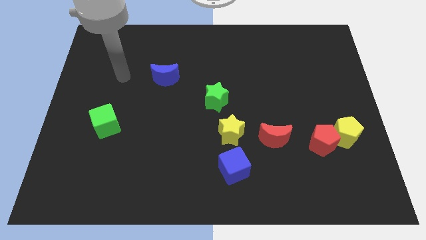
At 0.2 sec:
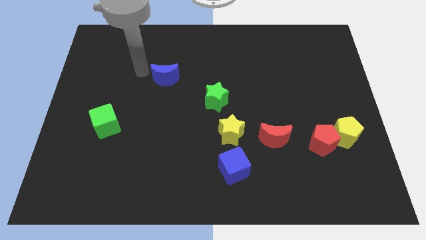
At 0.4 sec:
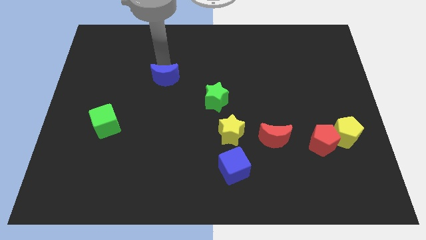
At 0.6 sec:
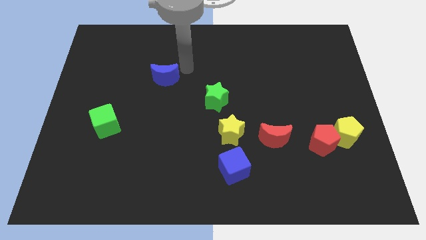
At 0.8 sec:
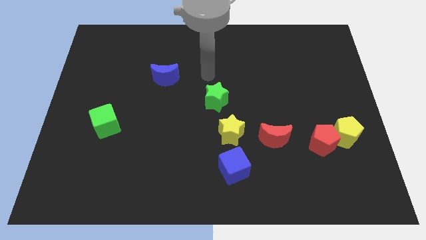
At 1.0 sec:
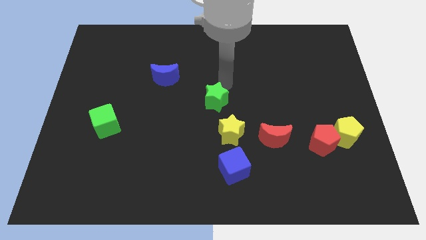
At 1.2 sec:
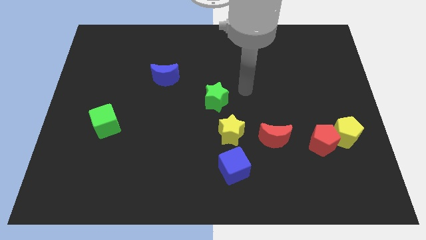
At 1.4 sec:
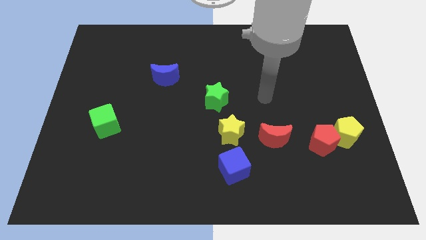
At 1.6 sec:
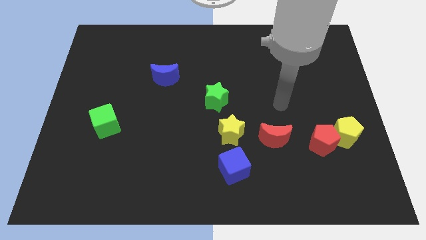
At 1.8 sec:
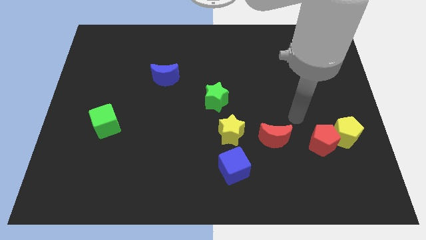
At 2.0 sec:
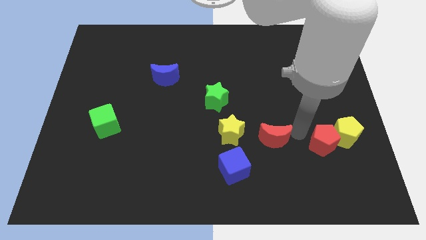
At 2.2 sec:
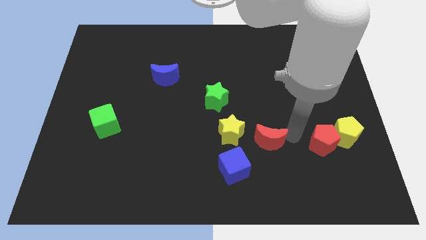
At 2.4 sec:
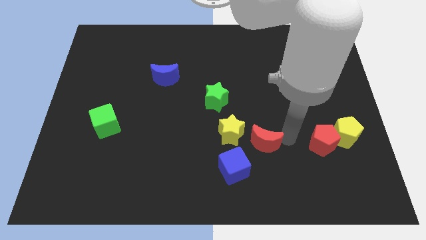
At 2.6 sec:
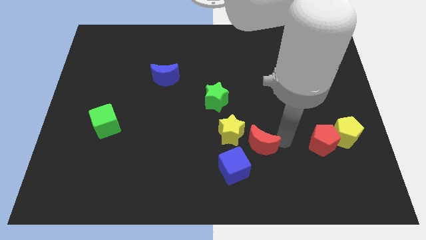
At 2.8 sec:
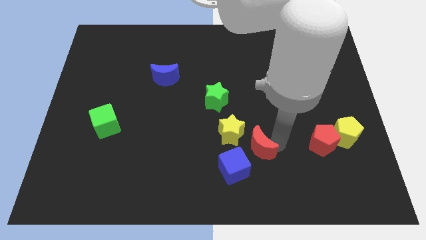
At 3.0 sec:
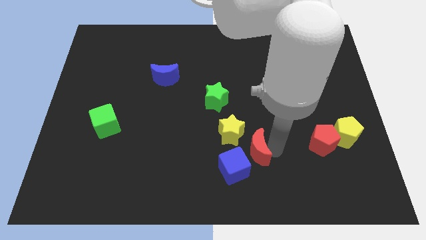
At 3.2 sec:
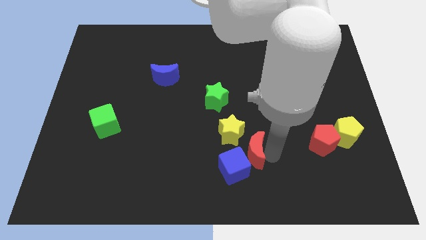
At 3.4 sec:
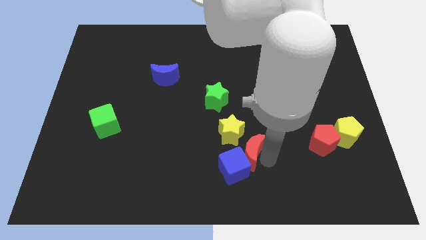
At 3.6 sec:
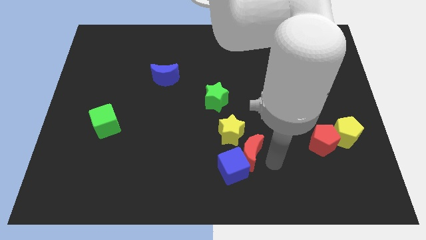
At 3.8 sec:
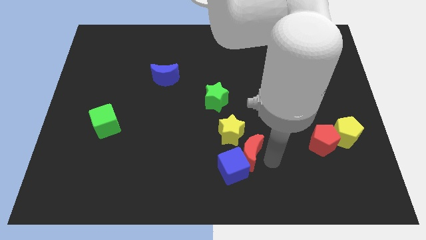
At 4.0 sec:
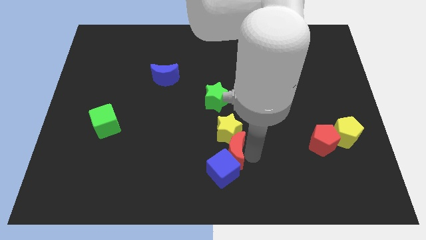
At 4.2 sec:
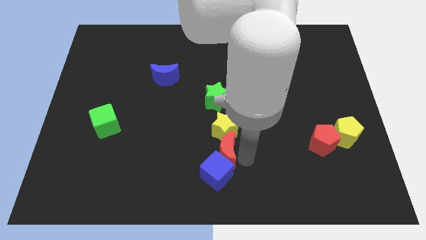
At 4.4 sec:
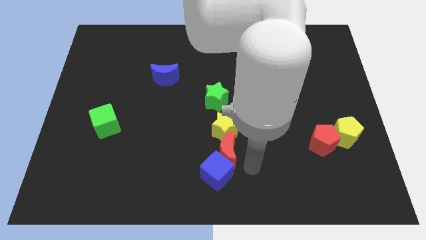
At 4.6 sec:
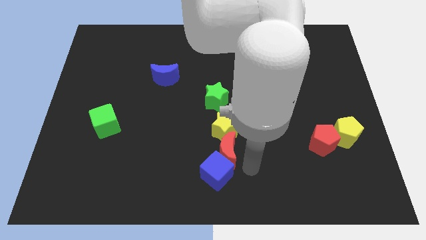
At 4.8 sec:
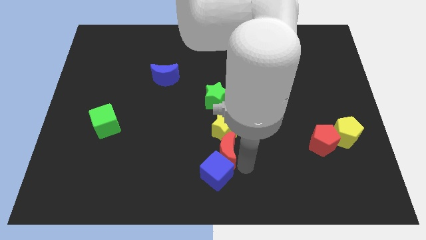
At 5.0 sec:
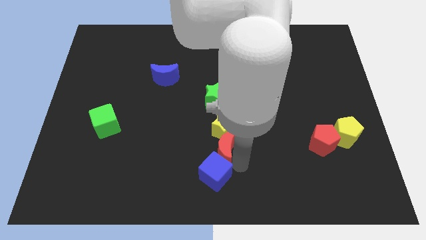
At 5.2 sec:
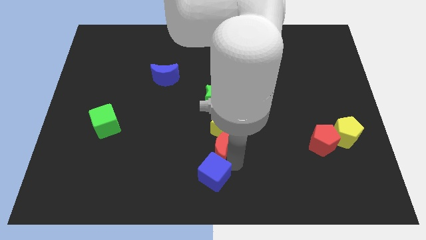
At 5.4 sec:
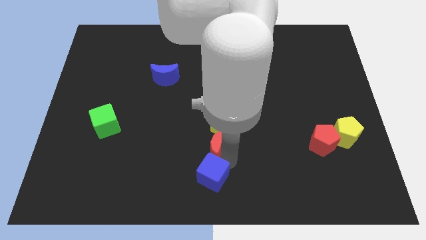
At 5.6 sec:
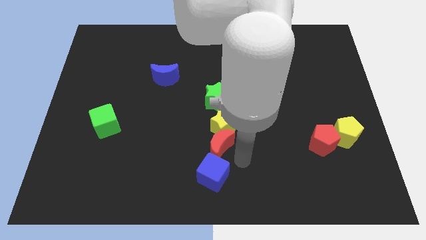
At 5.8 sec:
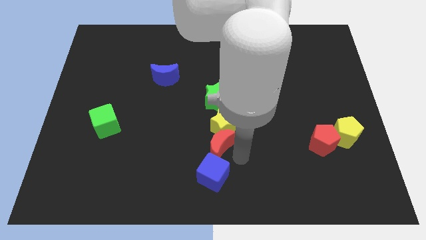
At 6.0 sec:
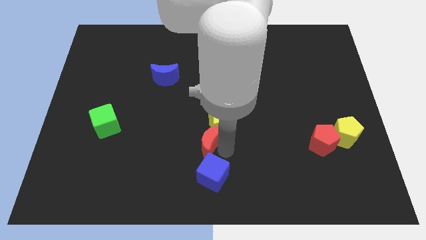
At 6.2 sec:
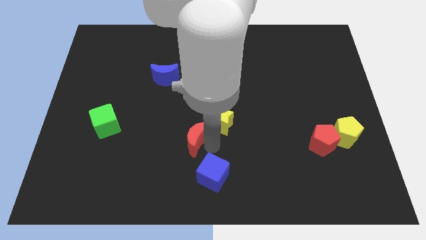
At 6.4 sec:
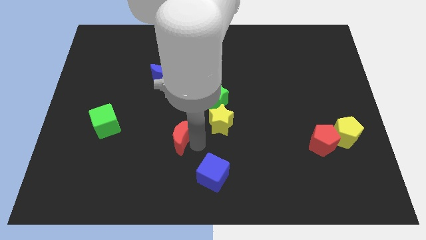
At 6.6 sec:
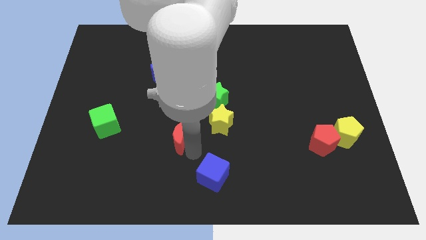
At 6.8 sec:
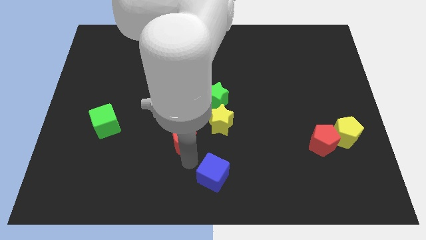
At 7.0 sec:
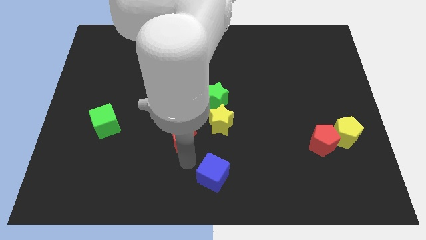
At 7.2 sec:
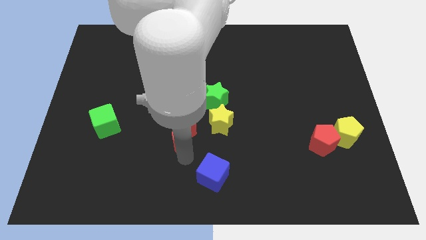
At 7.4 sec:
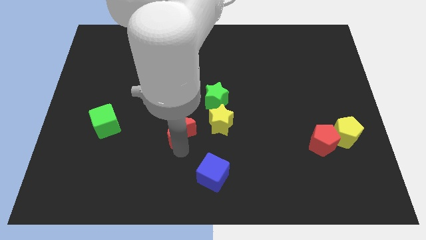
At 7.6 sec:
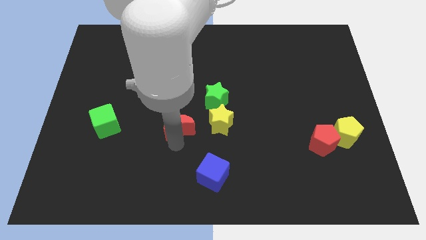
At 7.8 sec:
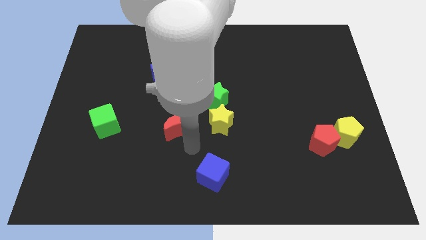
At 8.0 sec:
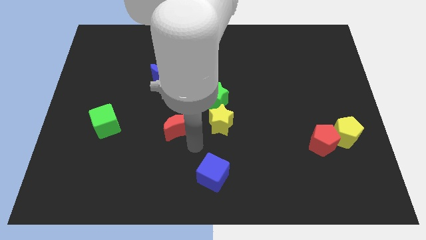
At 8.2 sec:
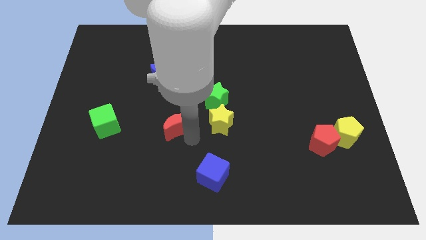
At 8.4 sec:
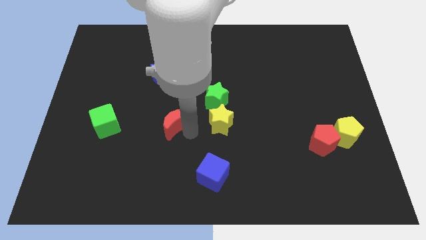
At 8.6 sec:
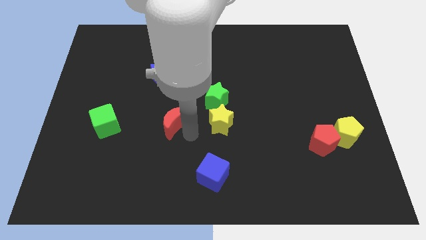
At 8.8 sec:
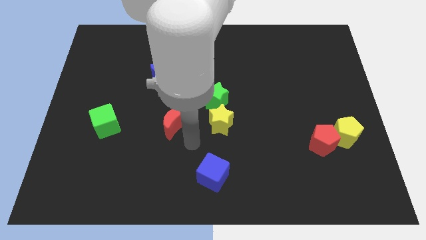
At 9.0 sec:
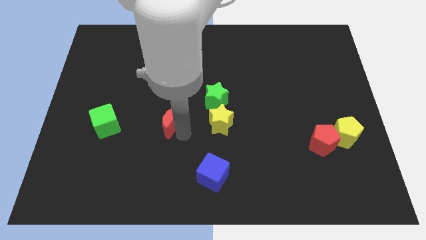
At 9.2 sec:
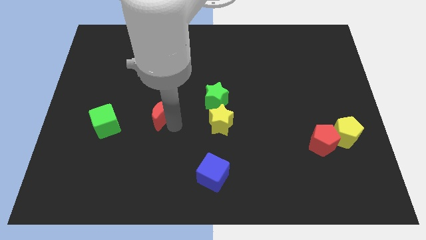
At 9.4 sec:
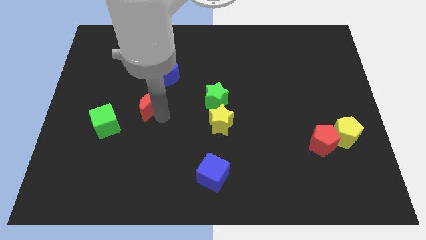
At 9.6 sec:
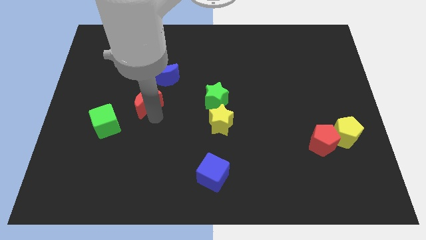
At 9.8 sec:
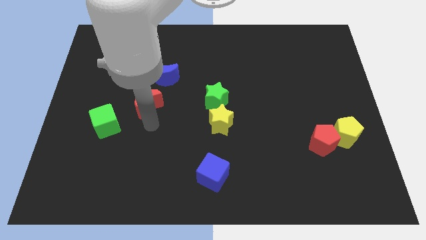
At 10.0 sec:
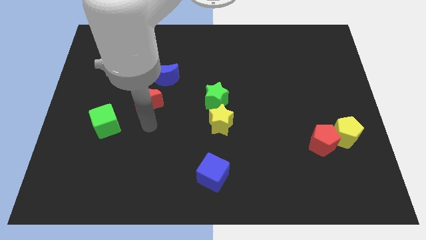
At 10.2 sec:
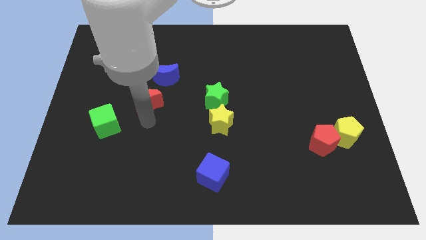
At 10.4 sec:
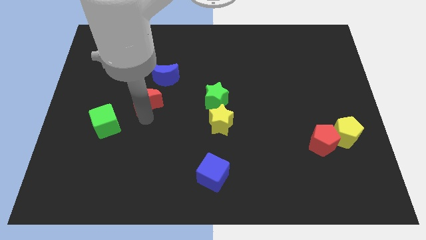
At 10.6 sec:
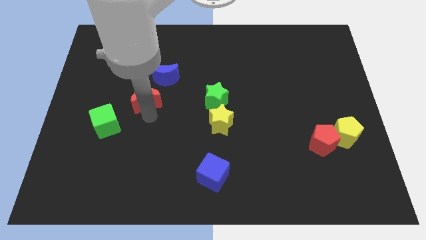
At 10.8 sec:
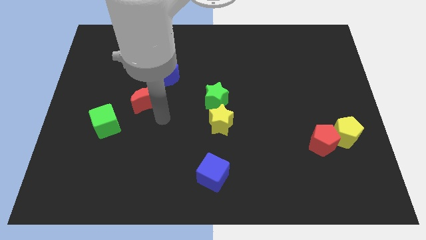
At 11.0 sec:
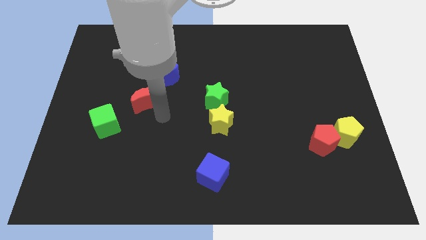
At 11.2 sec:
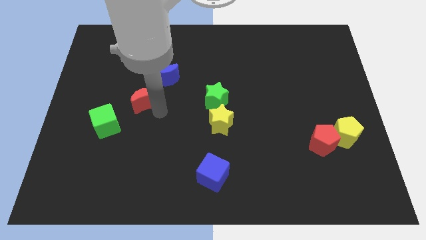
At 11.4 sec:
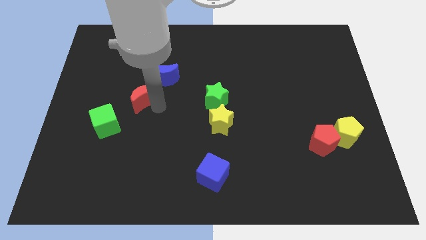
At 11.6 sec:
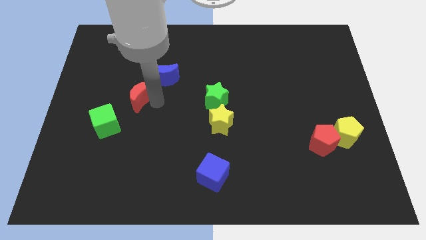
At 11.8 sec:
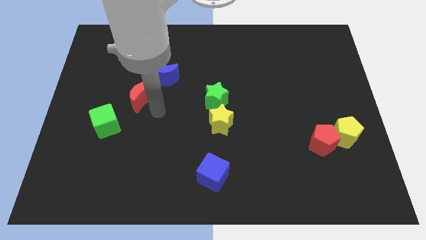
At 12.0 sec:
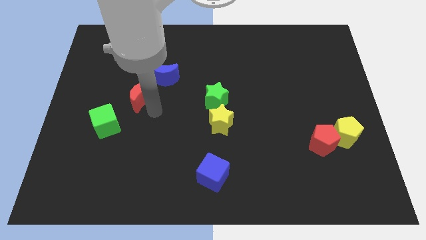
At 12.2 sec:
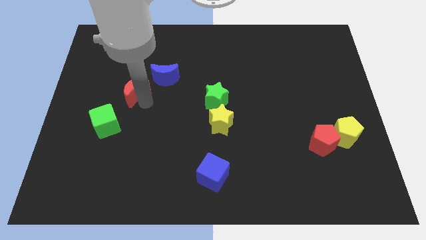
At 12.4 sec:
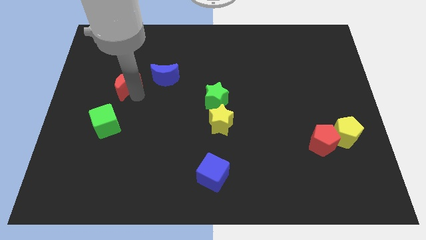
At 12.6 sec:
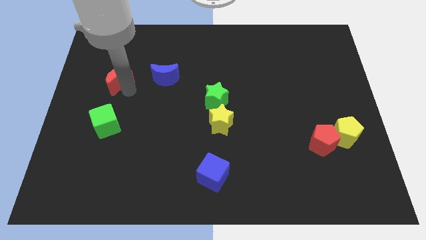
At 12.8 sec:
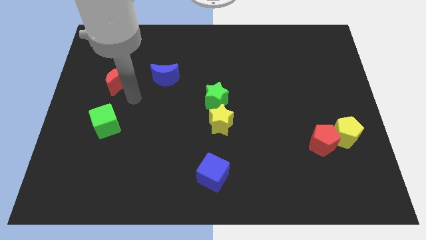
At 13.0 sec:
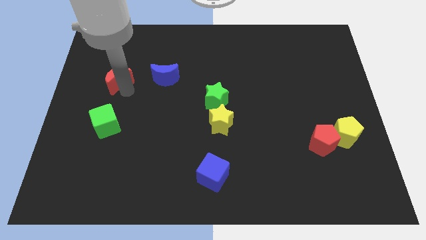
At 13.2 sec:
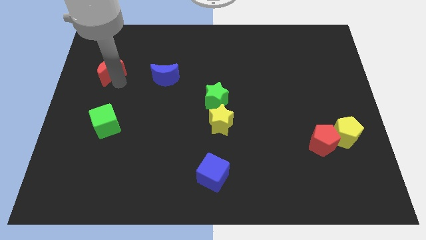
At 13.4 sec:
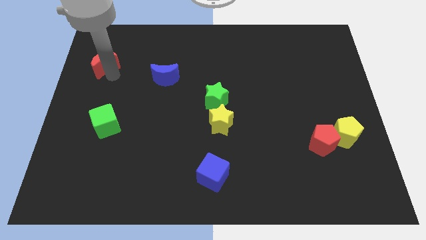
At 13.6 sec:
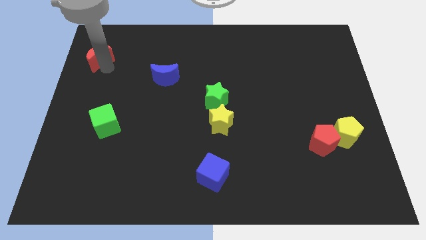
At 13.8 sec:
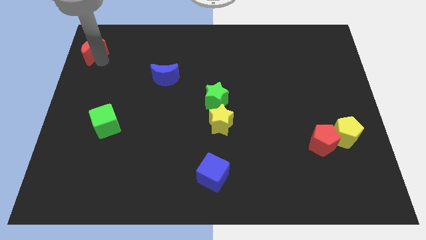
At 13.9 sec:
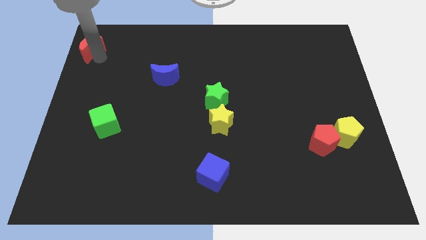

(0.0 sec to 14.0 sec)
move the red moon to the top left of the board
